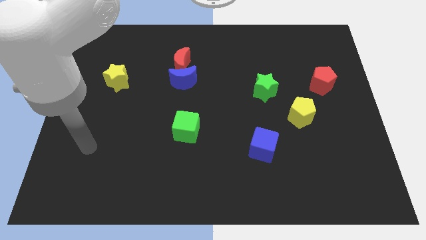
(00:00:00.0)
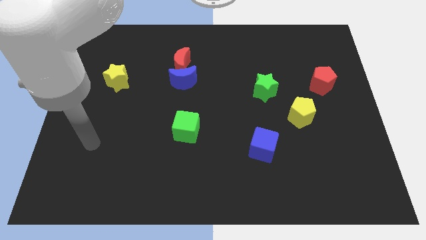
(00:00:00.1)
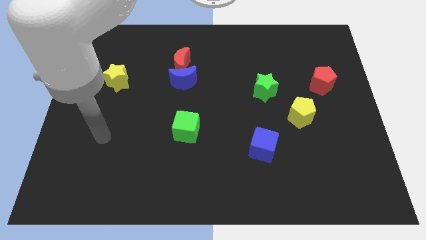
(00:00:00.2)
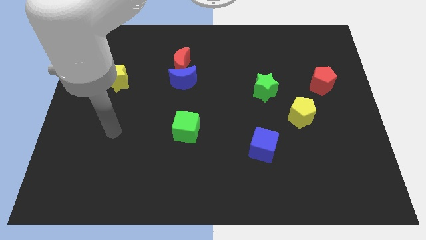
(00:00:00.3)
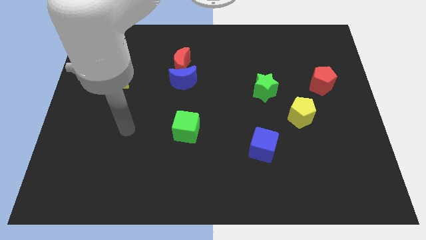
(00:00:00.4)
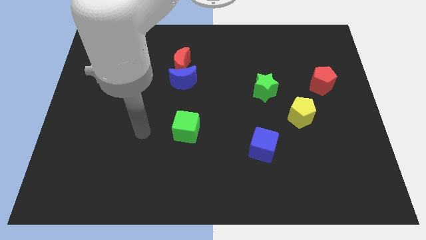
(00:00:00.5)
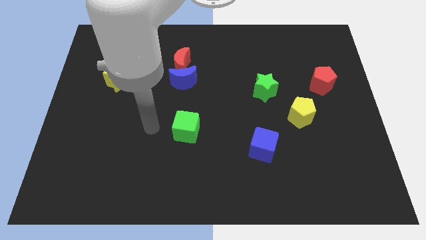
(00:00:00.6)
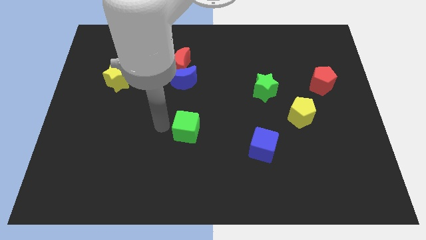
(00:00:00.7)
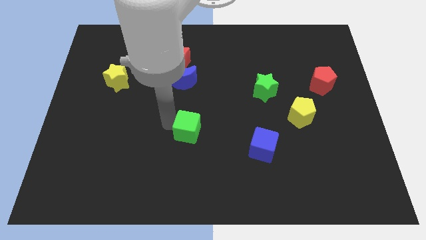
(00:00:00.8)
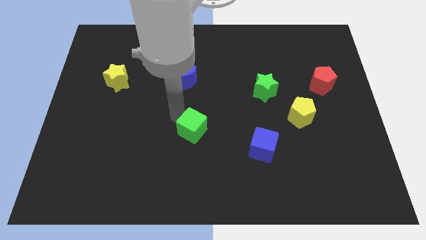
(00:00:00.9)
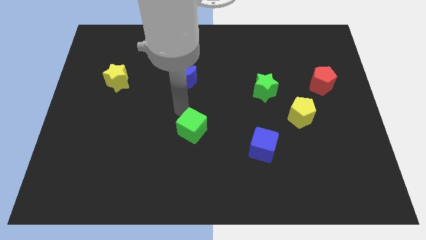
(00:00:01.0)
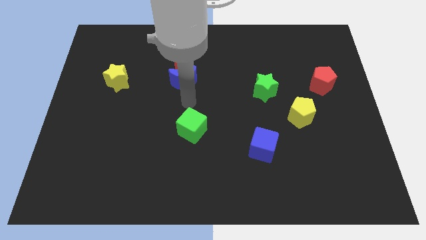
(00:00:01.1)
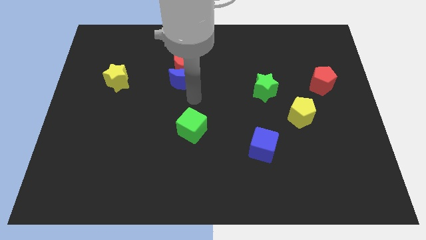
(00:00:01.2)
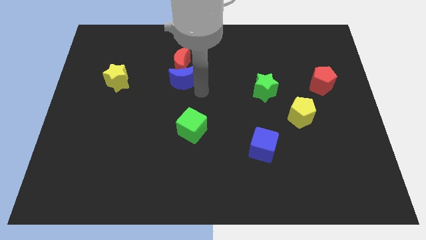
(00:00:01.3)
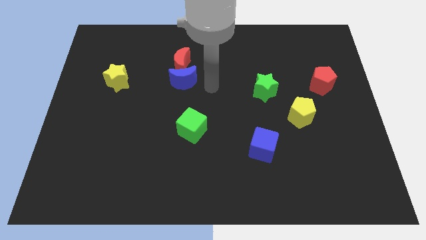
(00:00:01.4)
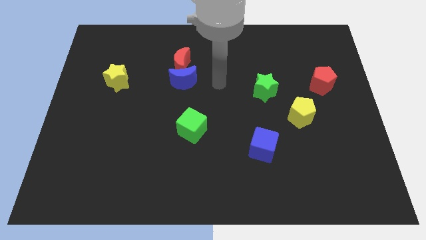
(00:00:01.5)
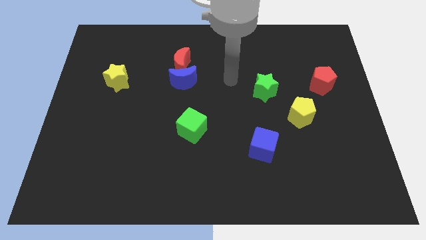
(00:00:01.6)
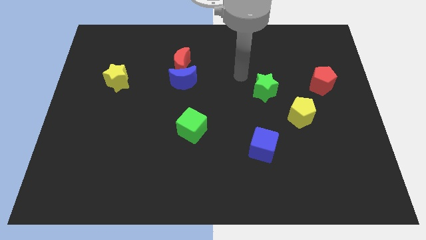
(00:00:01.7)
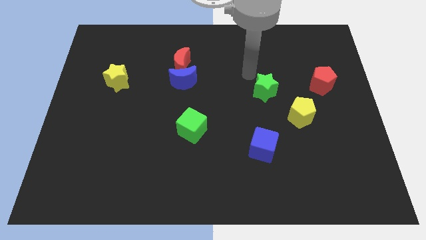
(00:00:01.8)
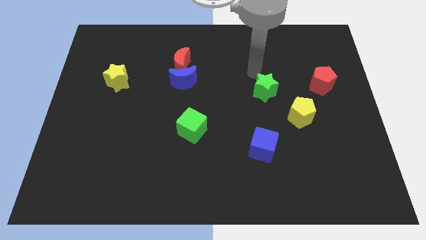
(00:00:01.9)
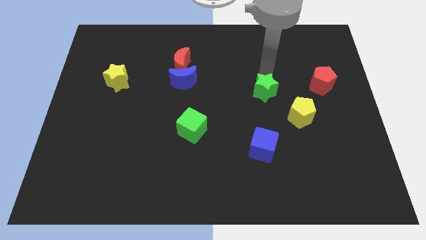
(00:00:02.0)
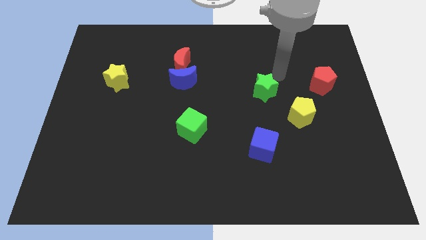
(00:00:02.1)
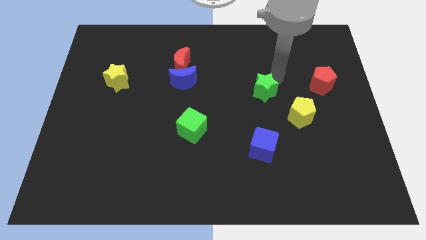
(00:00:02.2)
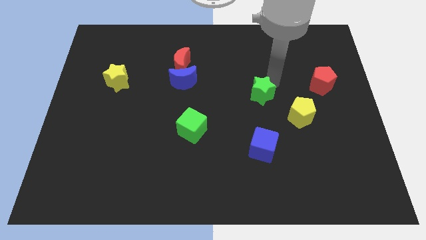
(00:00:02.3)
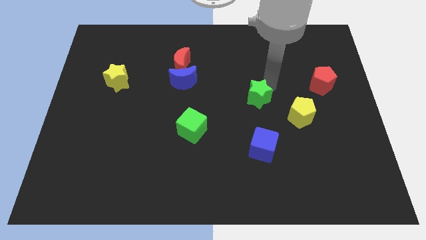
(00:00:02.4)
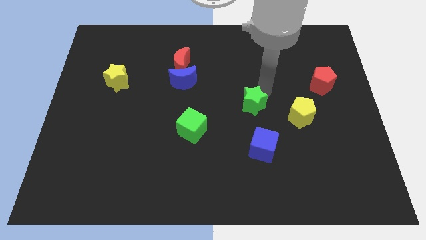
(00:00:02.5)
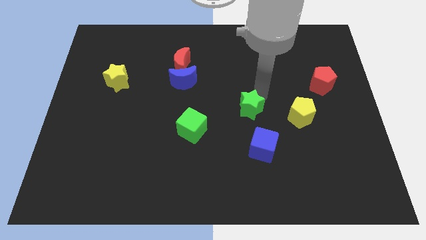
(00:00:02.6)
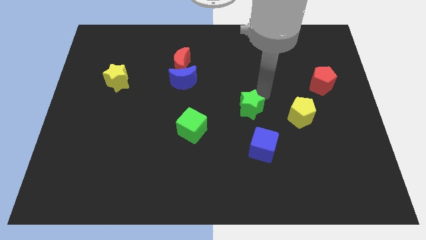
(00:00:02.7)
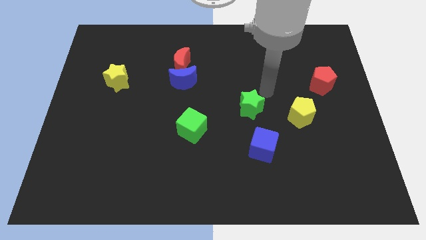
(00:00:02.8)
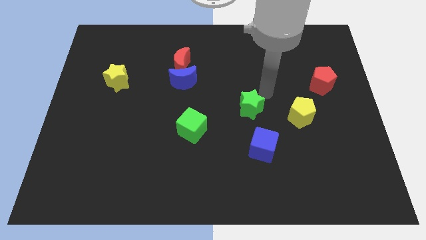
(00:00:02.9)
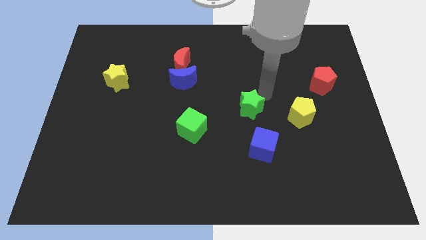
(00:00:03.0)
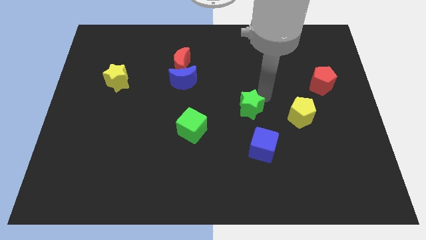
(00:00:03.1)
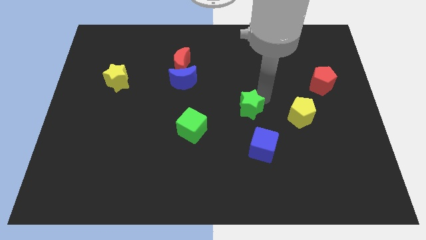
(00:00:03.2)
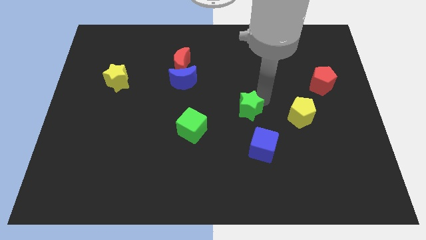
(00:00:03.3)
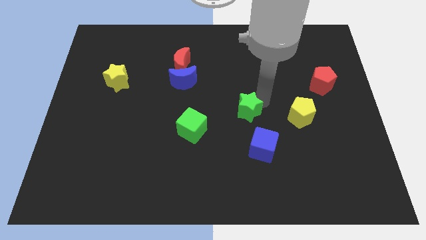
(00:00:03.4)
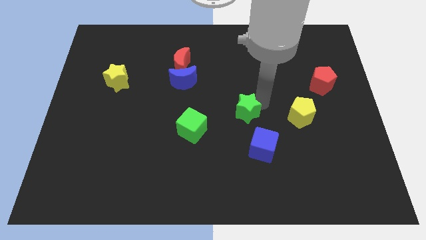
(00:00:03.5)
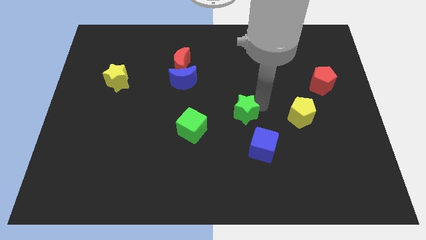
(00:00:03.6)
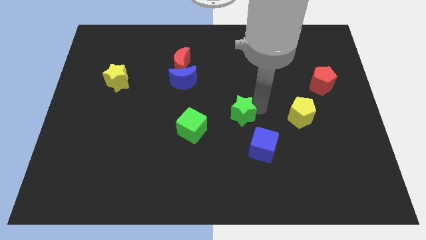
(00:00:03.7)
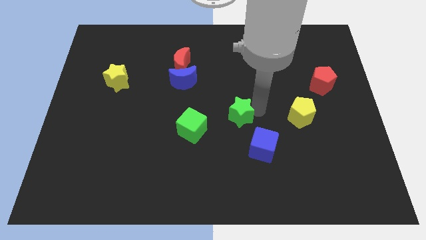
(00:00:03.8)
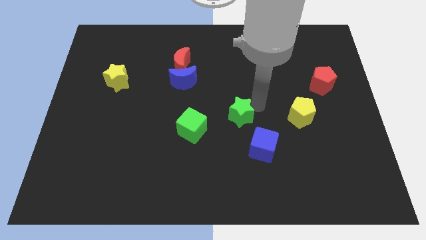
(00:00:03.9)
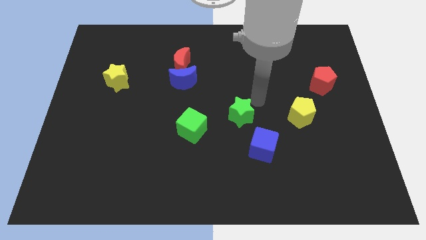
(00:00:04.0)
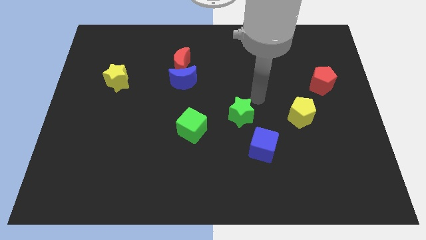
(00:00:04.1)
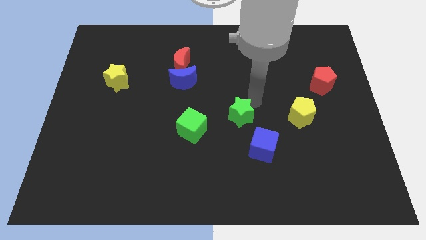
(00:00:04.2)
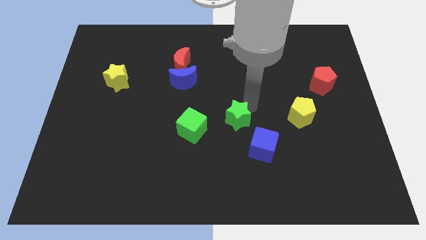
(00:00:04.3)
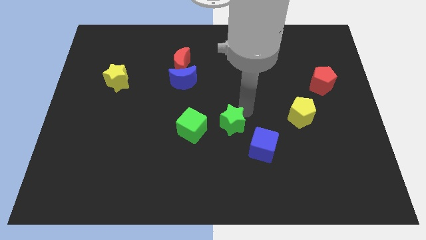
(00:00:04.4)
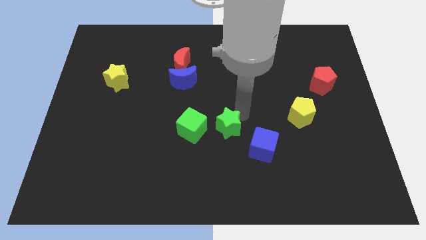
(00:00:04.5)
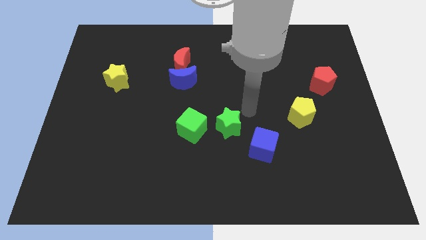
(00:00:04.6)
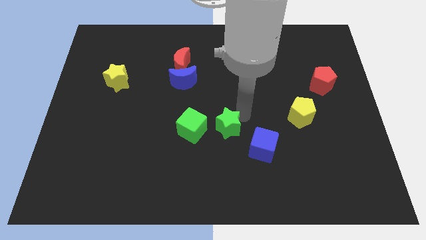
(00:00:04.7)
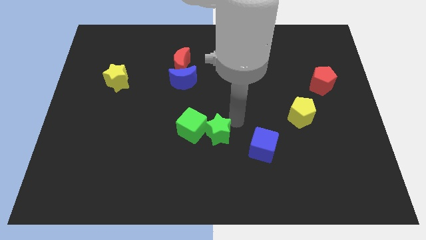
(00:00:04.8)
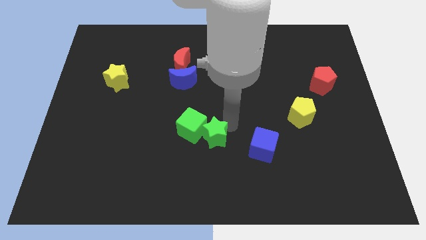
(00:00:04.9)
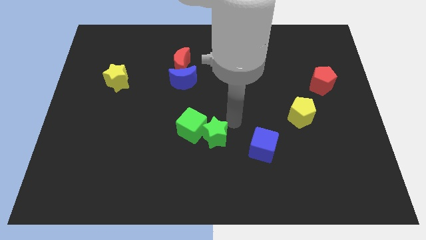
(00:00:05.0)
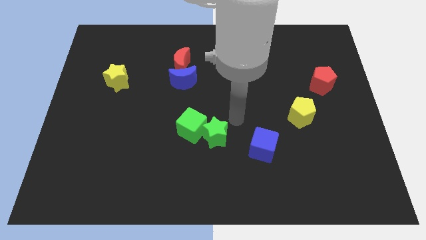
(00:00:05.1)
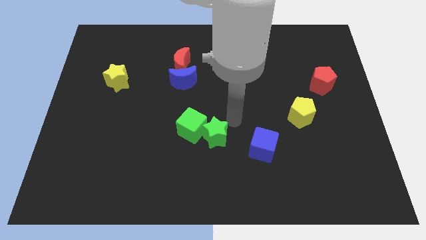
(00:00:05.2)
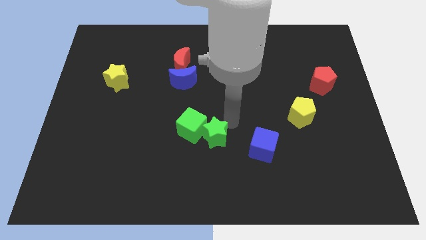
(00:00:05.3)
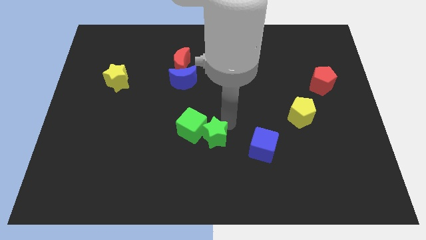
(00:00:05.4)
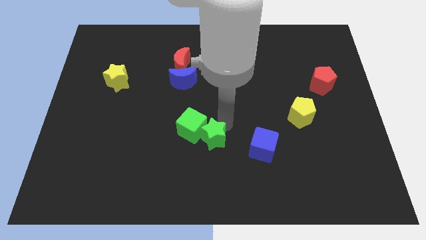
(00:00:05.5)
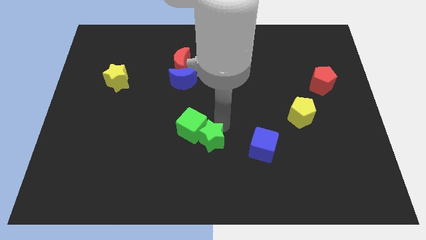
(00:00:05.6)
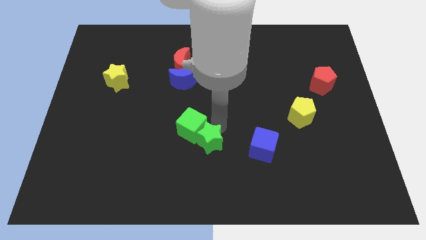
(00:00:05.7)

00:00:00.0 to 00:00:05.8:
push the green star downwards and left diagonally

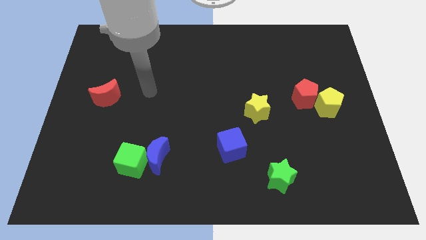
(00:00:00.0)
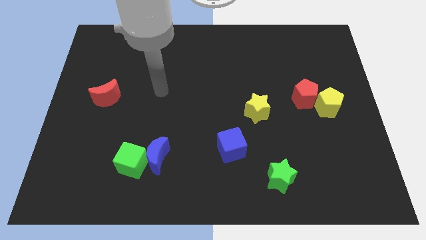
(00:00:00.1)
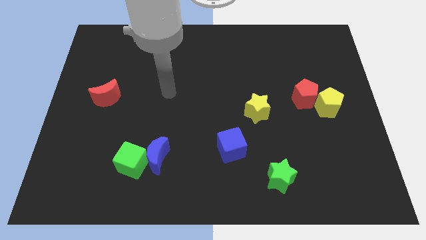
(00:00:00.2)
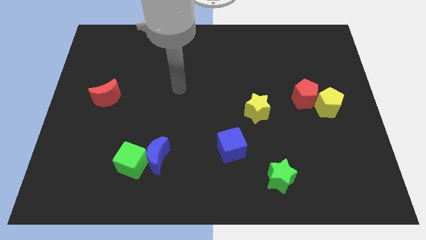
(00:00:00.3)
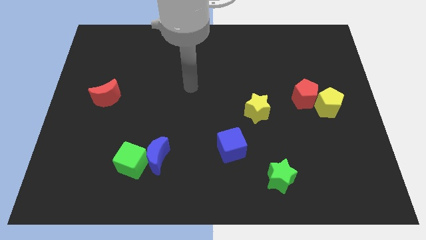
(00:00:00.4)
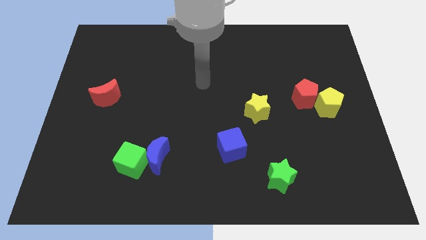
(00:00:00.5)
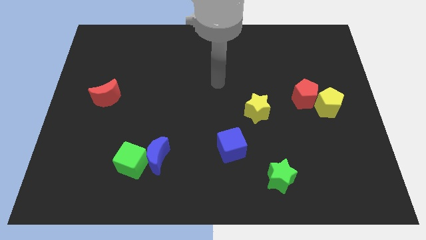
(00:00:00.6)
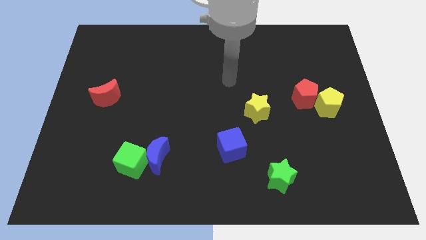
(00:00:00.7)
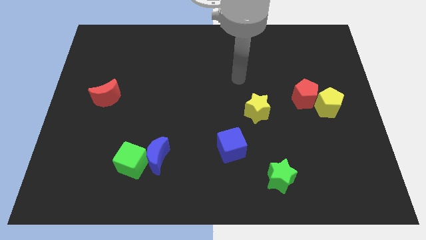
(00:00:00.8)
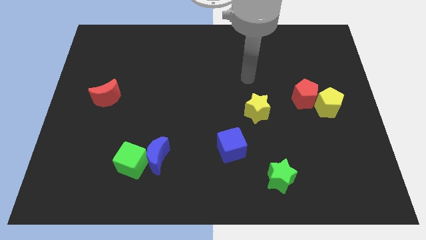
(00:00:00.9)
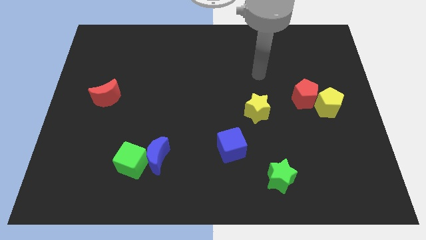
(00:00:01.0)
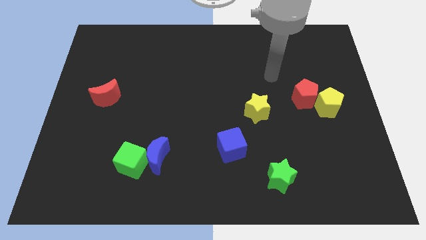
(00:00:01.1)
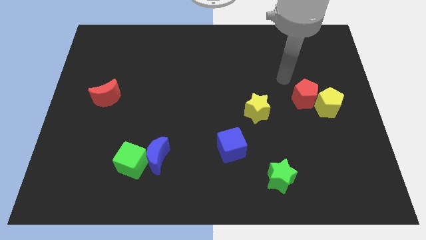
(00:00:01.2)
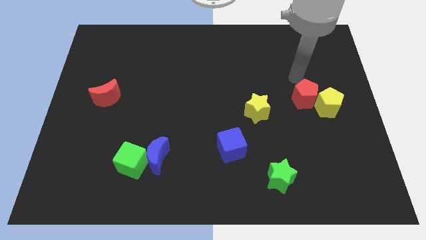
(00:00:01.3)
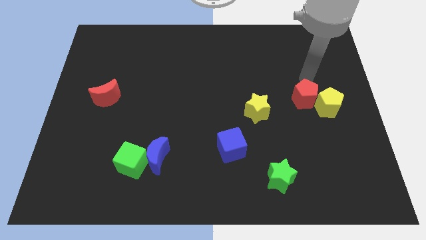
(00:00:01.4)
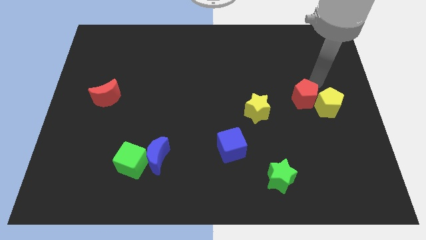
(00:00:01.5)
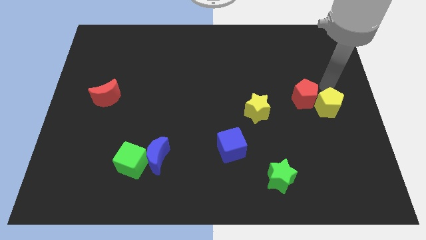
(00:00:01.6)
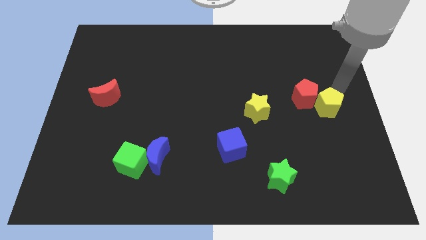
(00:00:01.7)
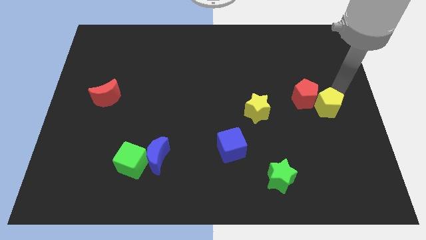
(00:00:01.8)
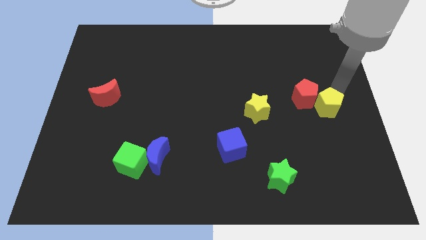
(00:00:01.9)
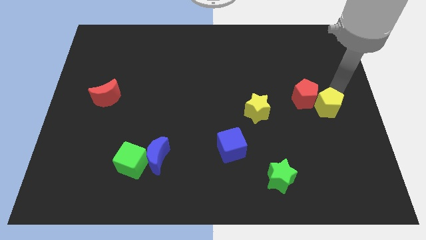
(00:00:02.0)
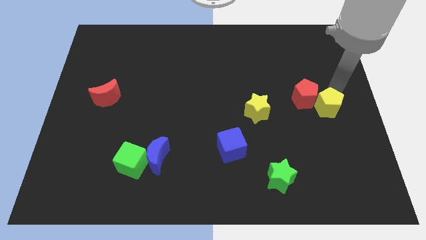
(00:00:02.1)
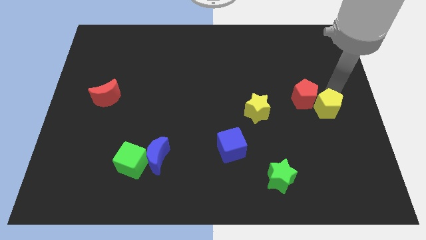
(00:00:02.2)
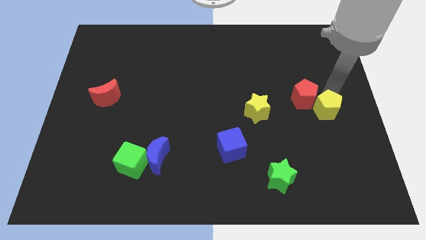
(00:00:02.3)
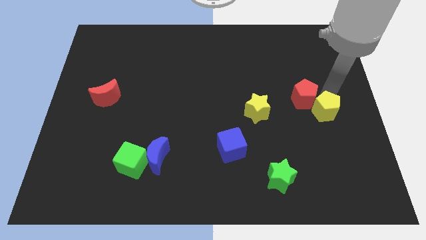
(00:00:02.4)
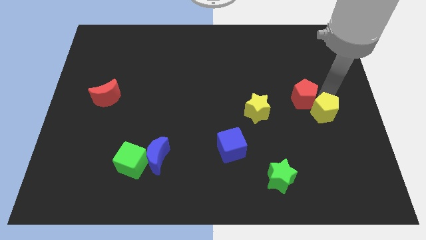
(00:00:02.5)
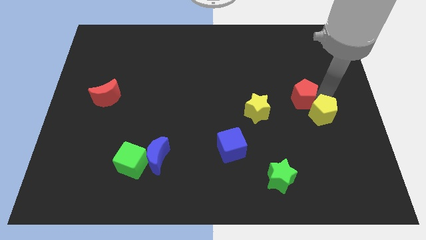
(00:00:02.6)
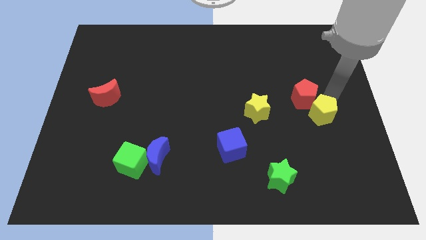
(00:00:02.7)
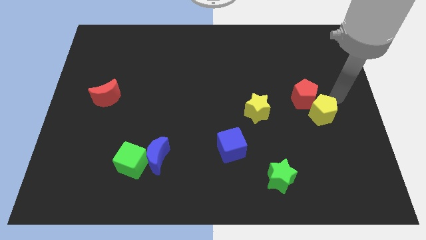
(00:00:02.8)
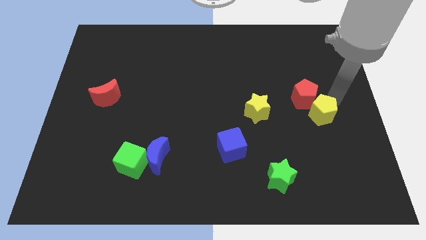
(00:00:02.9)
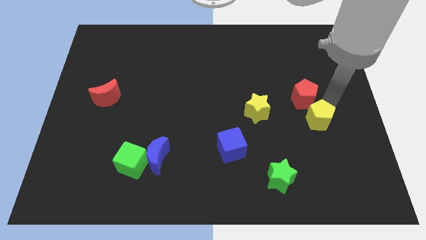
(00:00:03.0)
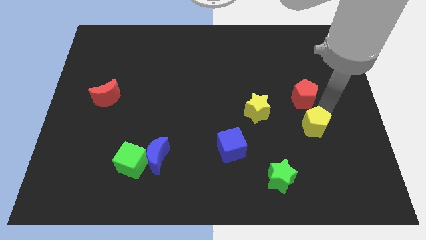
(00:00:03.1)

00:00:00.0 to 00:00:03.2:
move the yellow pentagon slightly downwards and then left
